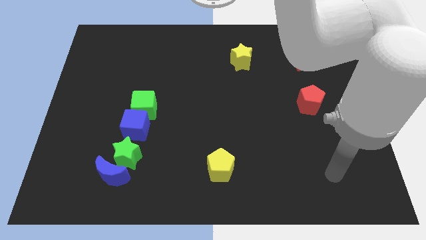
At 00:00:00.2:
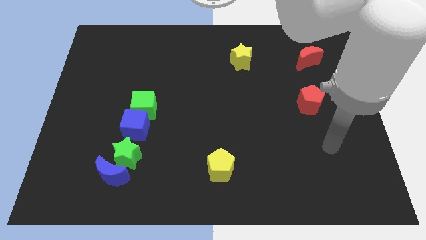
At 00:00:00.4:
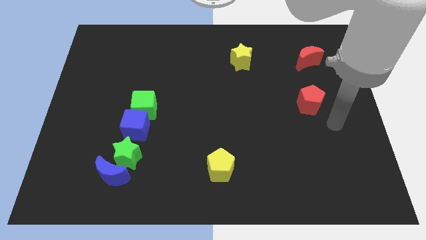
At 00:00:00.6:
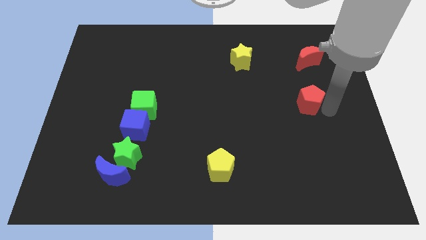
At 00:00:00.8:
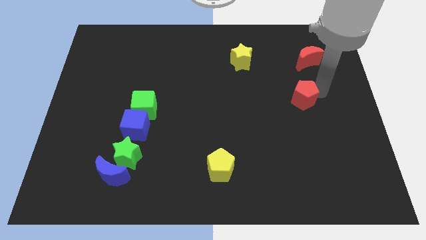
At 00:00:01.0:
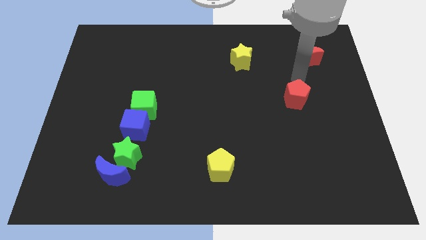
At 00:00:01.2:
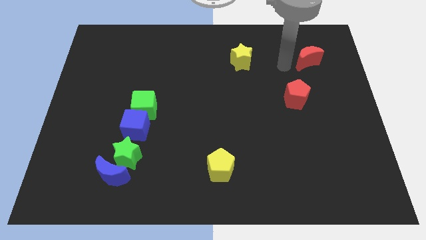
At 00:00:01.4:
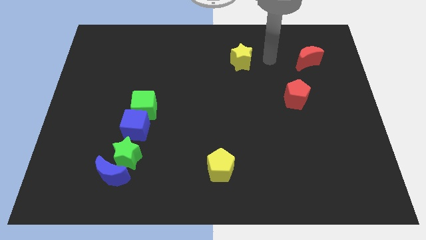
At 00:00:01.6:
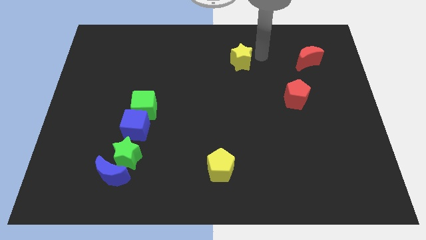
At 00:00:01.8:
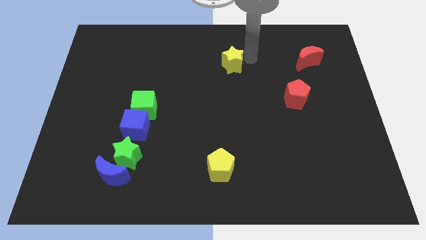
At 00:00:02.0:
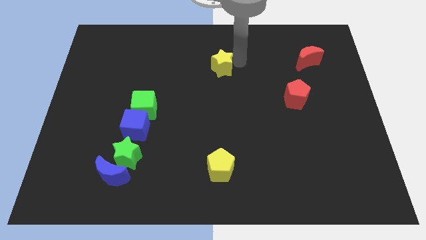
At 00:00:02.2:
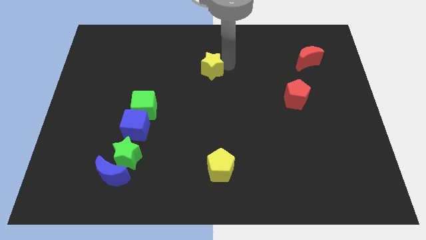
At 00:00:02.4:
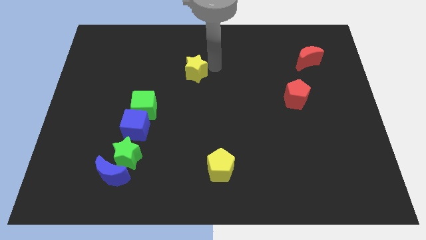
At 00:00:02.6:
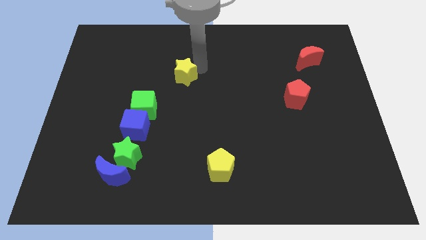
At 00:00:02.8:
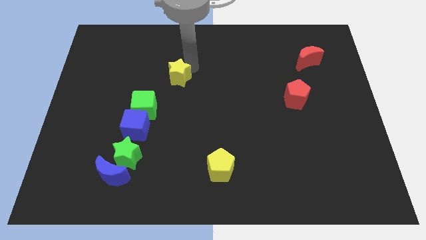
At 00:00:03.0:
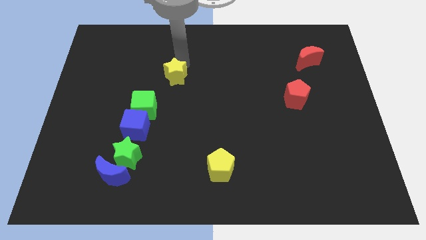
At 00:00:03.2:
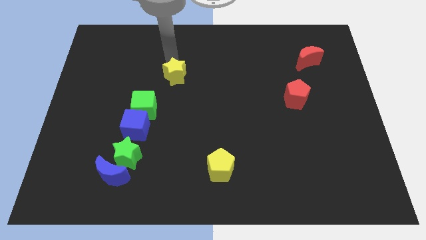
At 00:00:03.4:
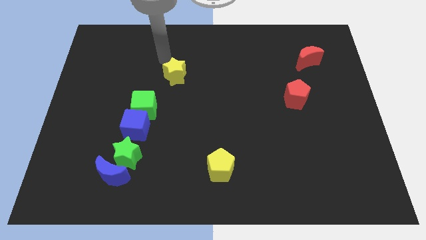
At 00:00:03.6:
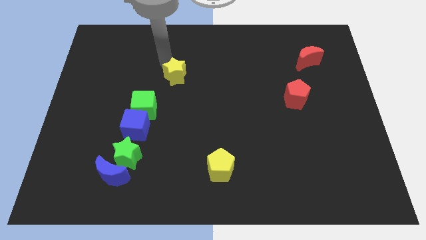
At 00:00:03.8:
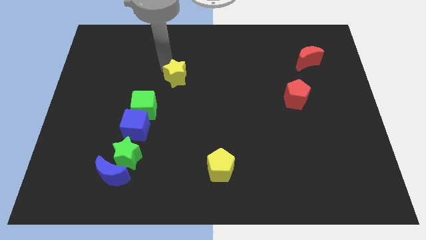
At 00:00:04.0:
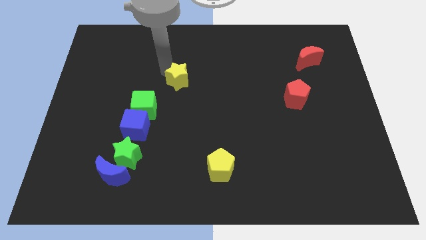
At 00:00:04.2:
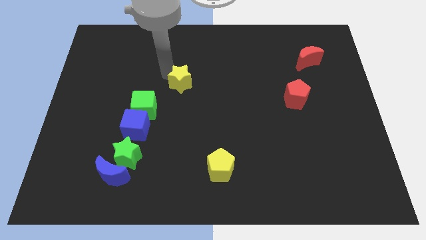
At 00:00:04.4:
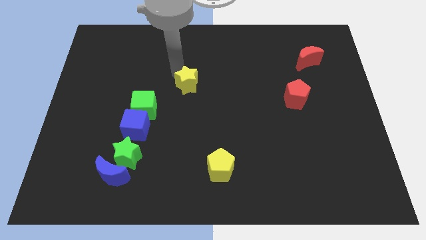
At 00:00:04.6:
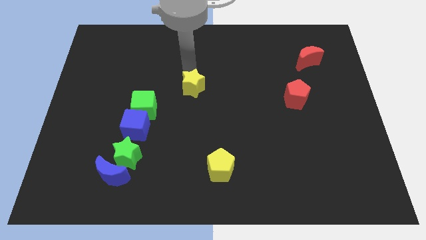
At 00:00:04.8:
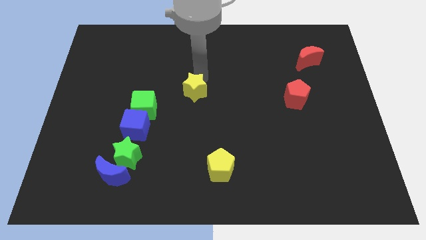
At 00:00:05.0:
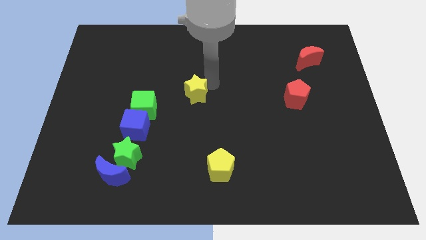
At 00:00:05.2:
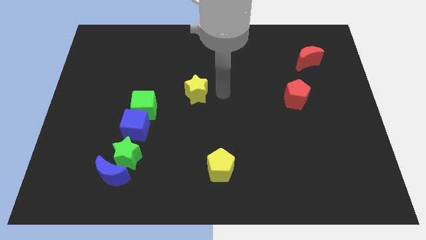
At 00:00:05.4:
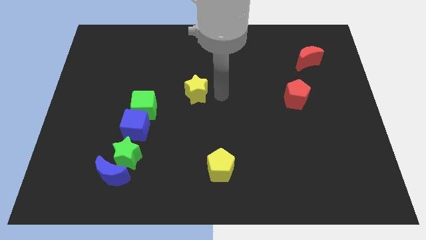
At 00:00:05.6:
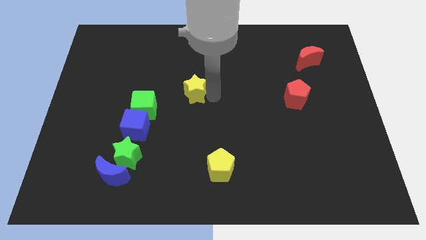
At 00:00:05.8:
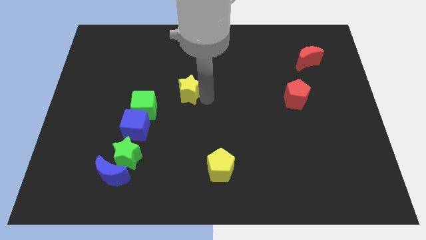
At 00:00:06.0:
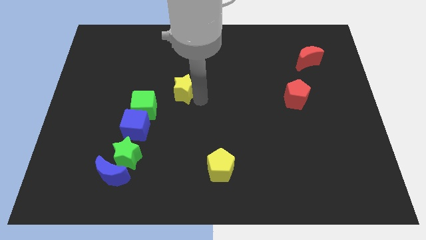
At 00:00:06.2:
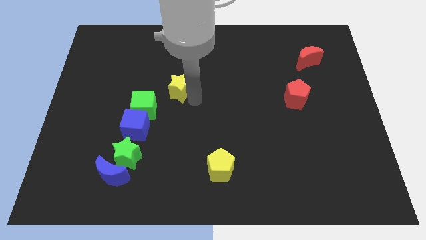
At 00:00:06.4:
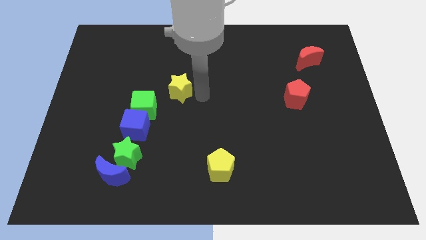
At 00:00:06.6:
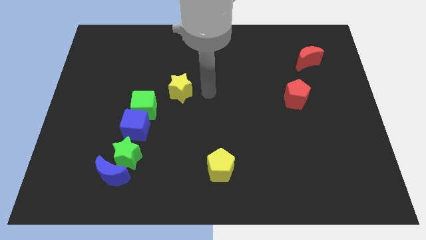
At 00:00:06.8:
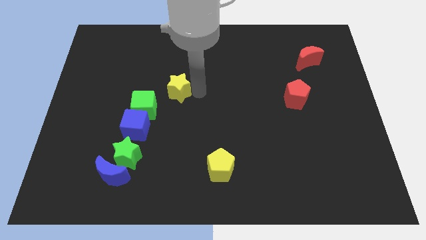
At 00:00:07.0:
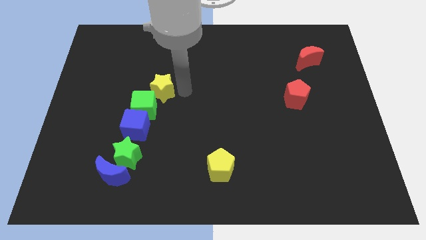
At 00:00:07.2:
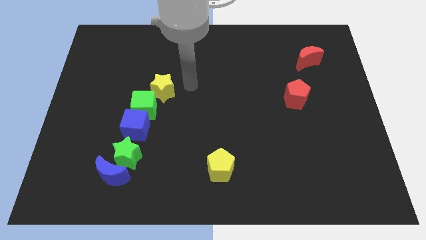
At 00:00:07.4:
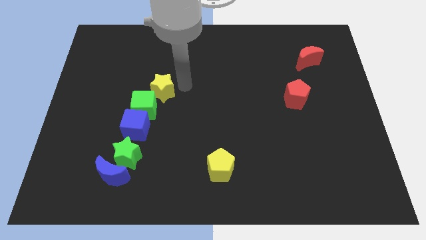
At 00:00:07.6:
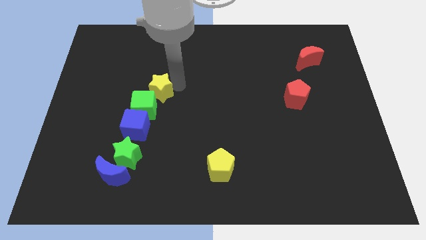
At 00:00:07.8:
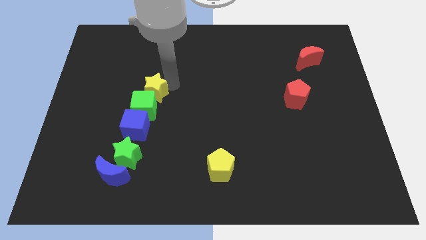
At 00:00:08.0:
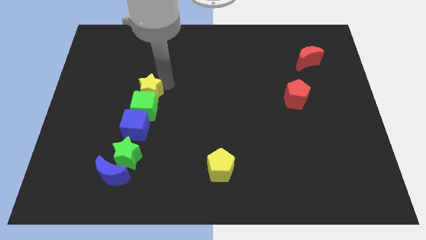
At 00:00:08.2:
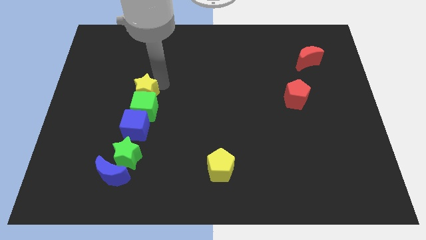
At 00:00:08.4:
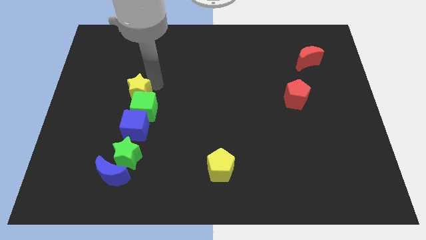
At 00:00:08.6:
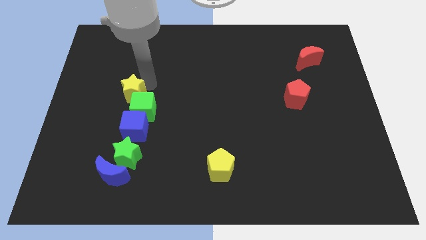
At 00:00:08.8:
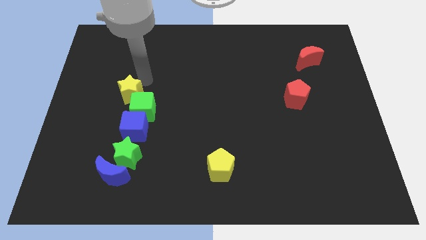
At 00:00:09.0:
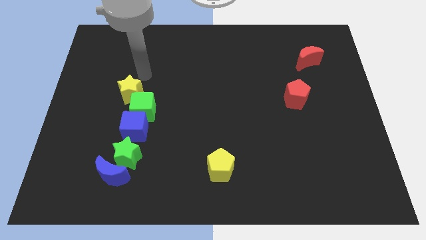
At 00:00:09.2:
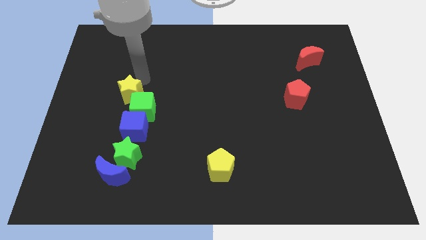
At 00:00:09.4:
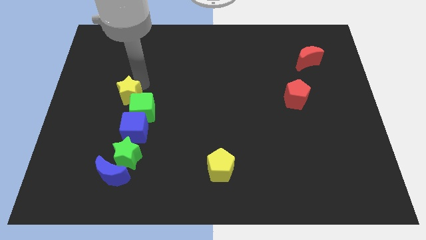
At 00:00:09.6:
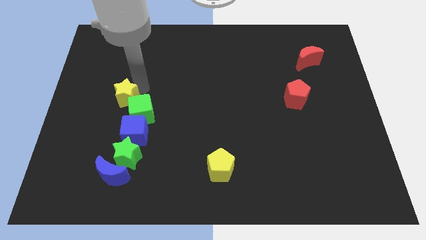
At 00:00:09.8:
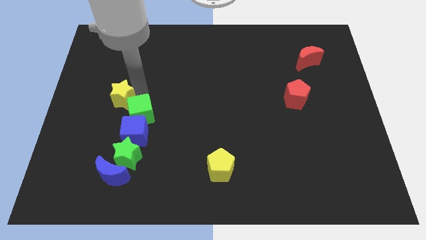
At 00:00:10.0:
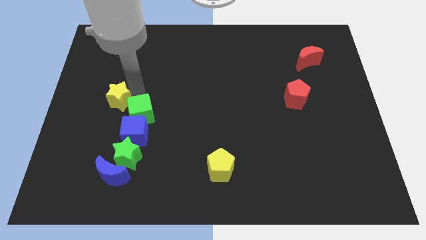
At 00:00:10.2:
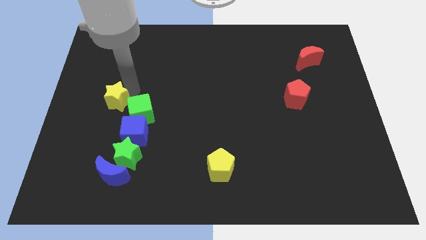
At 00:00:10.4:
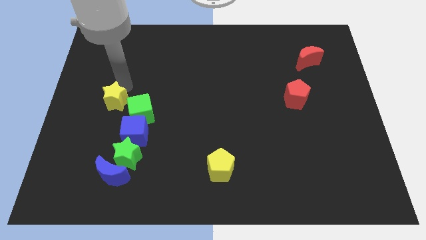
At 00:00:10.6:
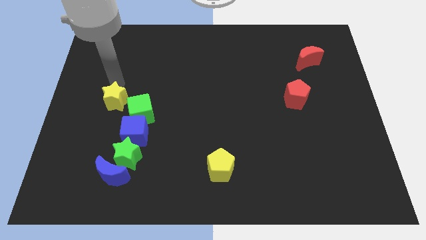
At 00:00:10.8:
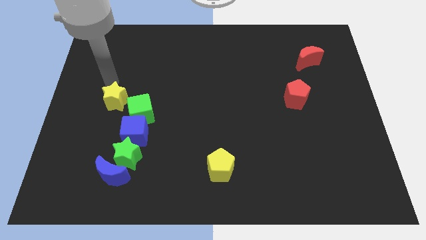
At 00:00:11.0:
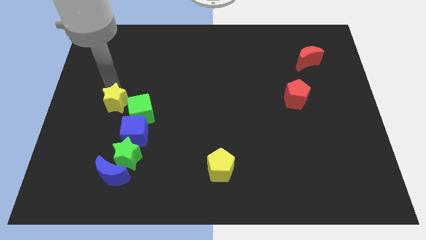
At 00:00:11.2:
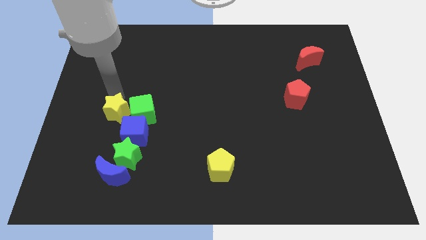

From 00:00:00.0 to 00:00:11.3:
move the yellow star to the bottom left side of the green cube
